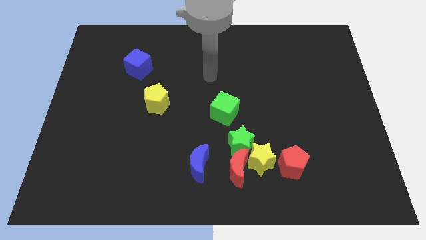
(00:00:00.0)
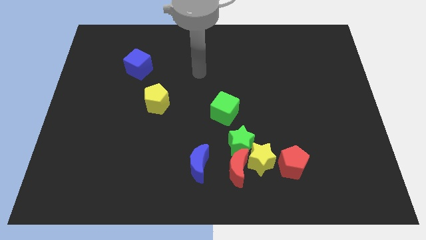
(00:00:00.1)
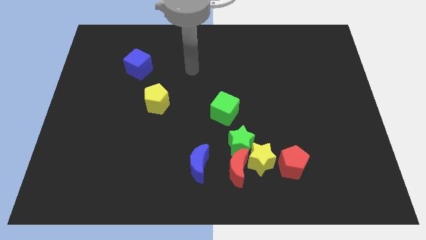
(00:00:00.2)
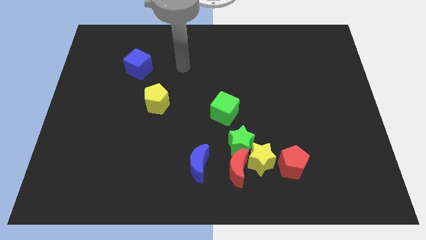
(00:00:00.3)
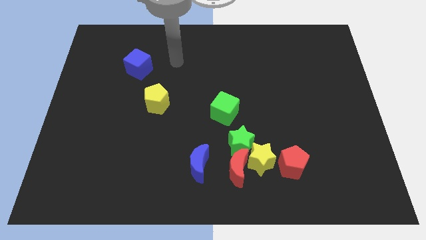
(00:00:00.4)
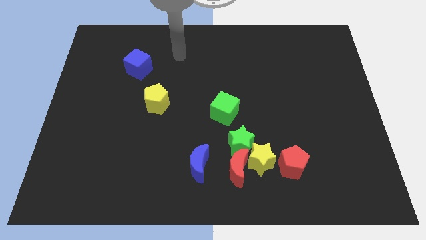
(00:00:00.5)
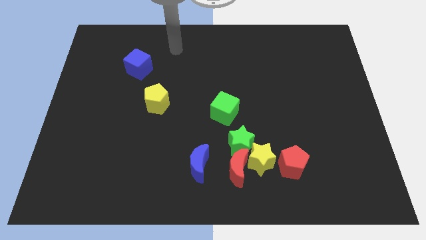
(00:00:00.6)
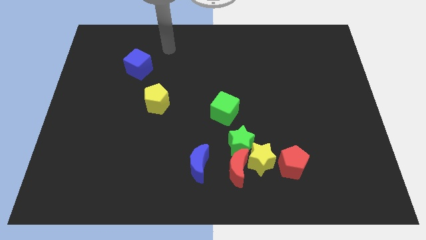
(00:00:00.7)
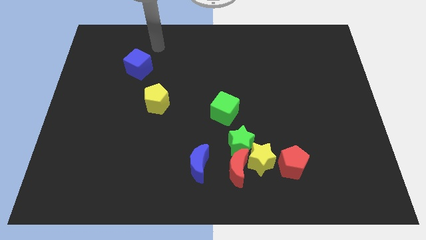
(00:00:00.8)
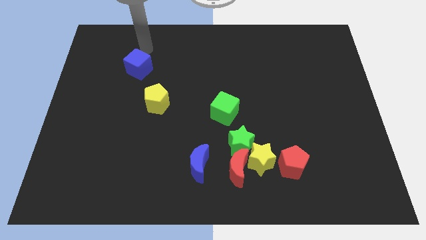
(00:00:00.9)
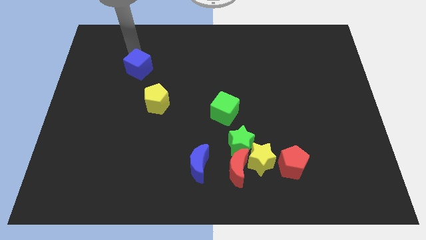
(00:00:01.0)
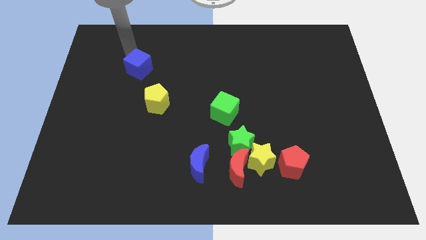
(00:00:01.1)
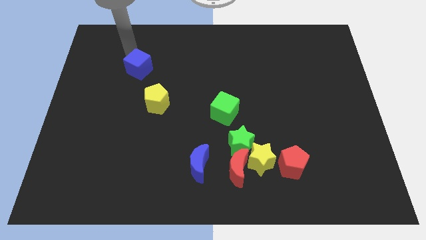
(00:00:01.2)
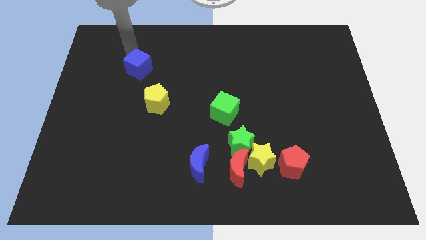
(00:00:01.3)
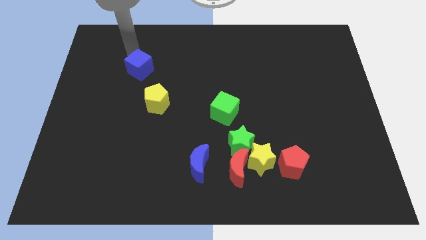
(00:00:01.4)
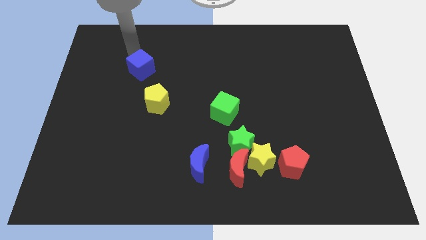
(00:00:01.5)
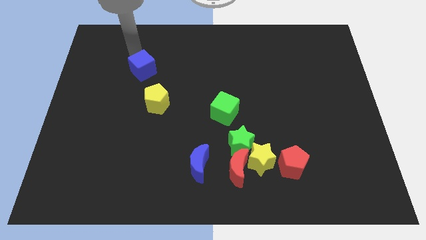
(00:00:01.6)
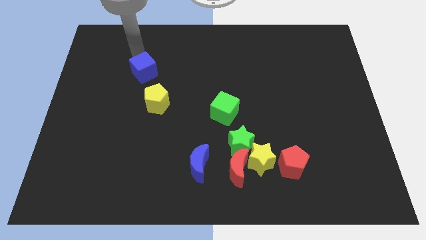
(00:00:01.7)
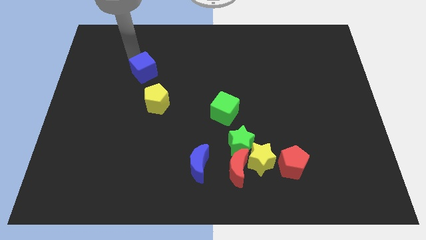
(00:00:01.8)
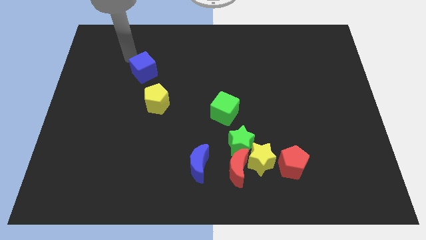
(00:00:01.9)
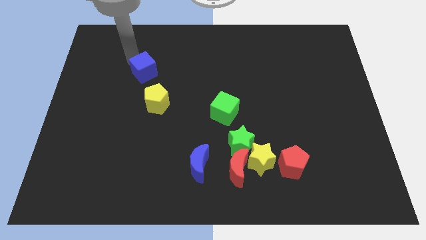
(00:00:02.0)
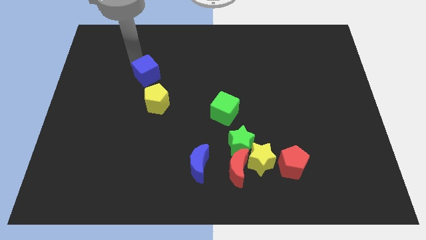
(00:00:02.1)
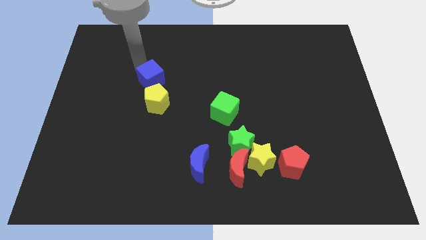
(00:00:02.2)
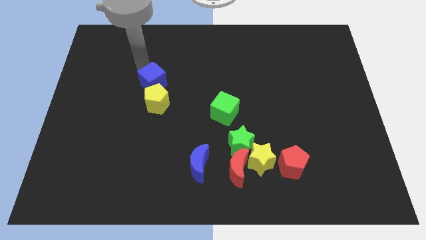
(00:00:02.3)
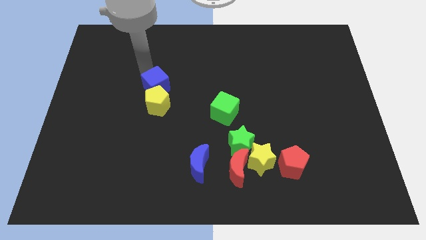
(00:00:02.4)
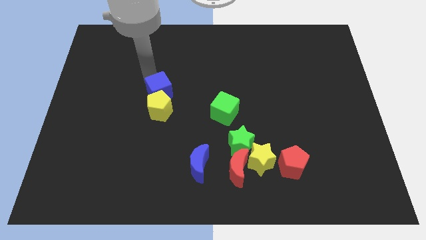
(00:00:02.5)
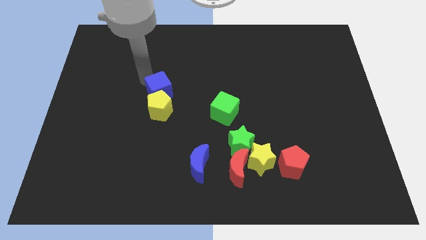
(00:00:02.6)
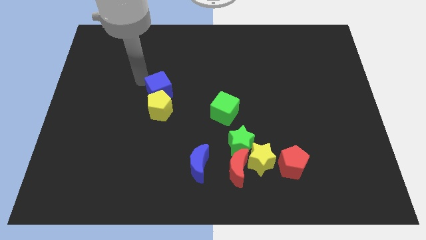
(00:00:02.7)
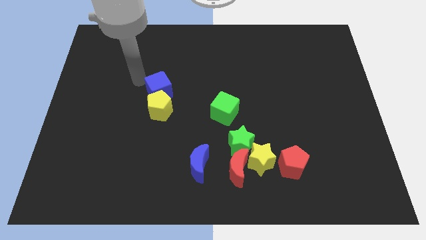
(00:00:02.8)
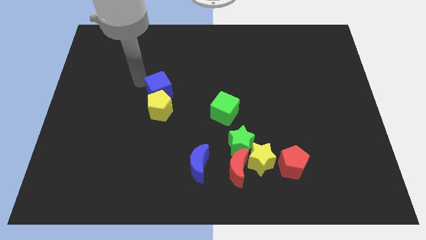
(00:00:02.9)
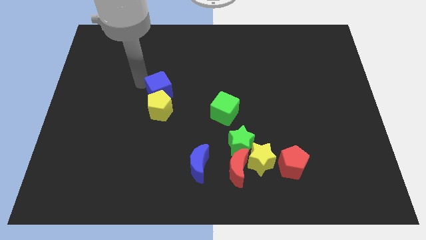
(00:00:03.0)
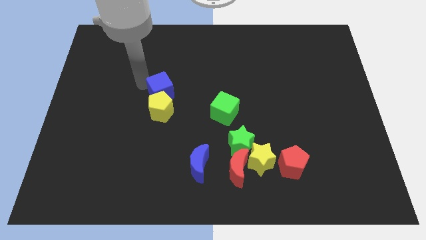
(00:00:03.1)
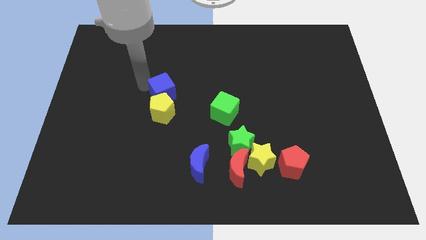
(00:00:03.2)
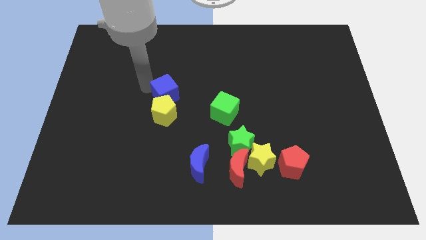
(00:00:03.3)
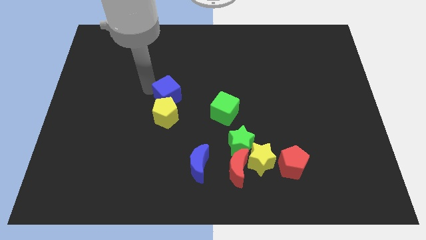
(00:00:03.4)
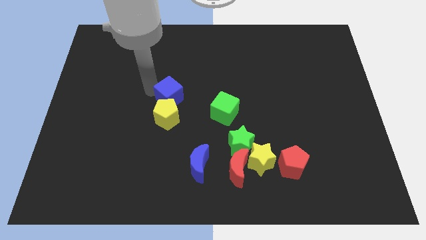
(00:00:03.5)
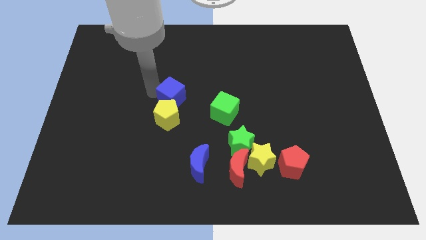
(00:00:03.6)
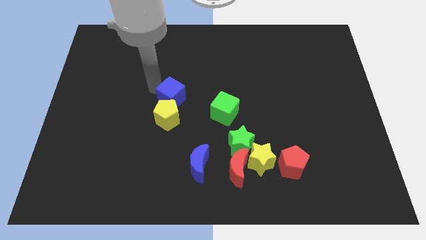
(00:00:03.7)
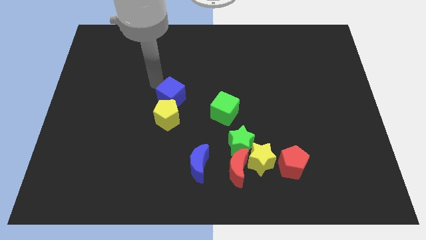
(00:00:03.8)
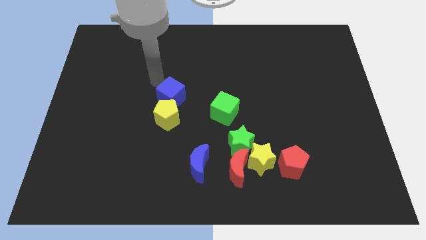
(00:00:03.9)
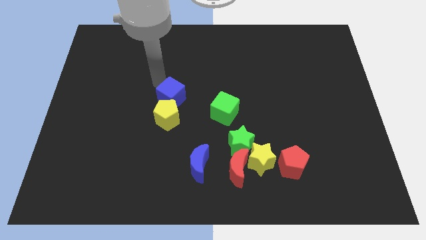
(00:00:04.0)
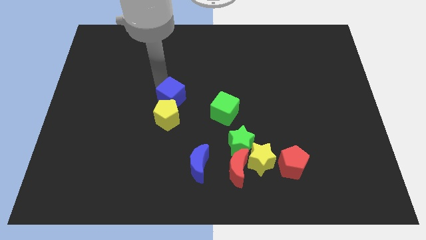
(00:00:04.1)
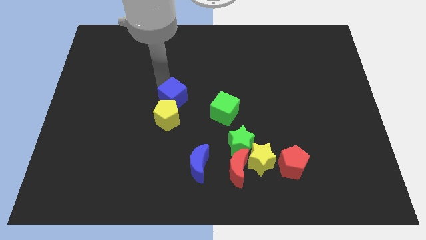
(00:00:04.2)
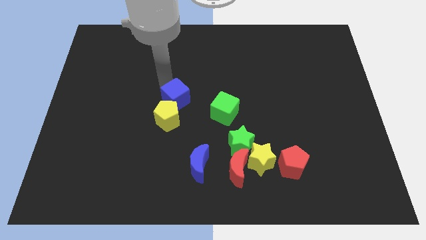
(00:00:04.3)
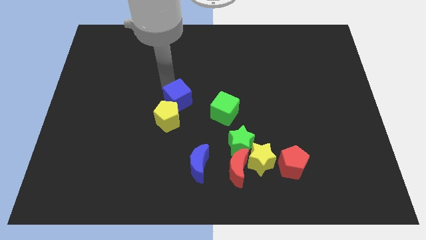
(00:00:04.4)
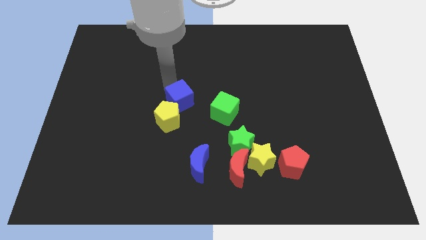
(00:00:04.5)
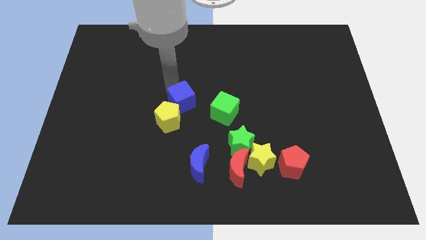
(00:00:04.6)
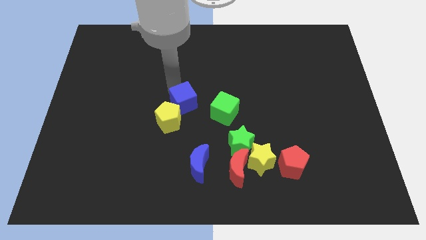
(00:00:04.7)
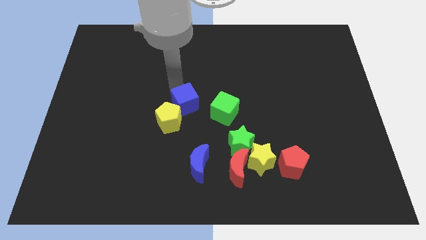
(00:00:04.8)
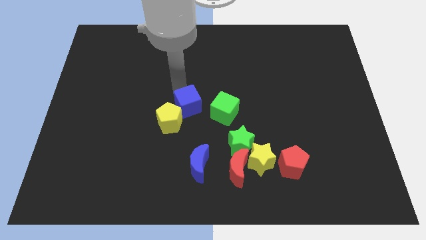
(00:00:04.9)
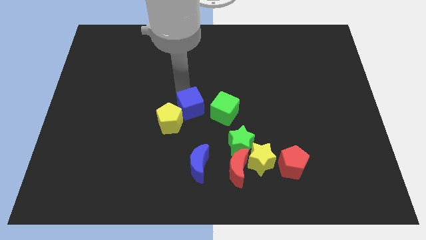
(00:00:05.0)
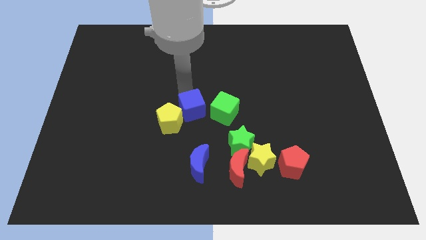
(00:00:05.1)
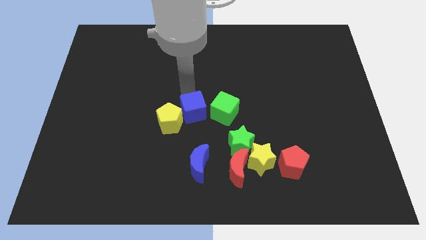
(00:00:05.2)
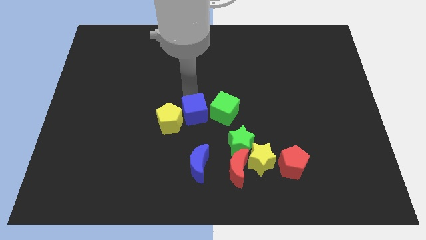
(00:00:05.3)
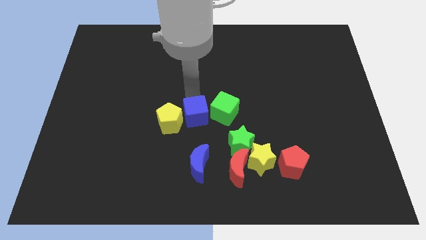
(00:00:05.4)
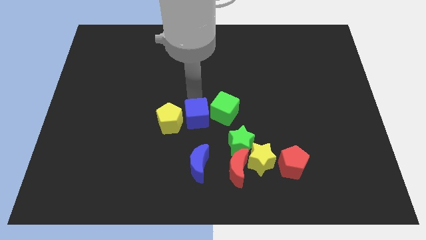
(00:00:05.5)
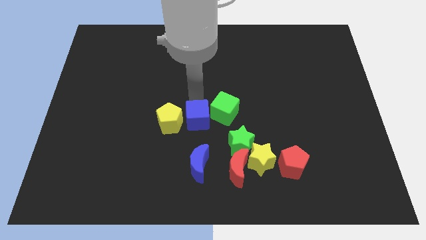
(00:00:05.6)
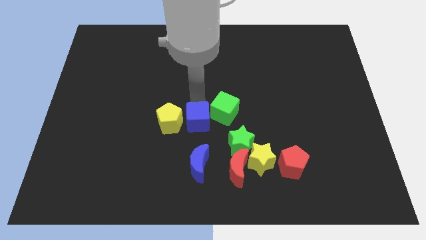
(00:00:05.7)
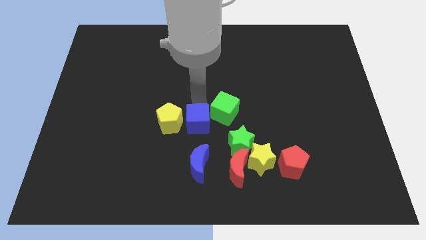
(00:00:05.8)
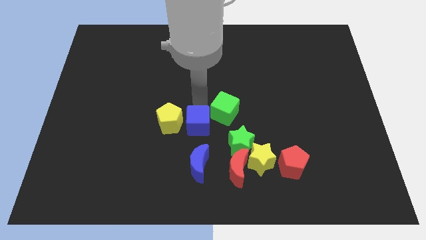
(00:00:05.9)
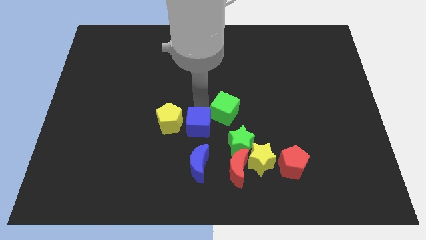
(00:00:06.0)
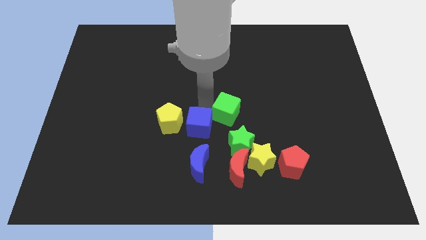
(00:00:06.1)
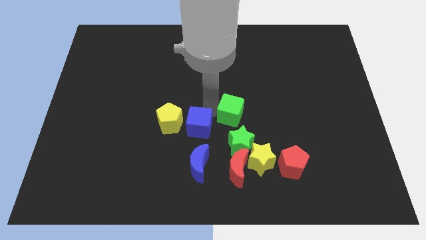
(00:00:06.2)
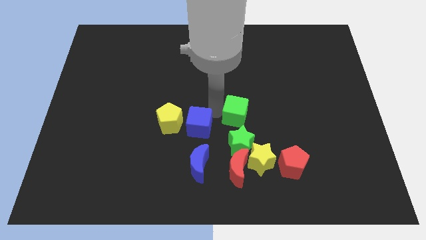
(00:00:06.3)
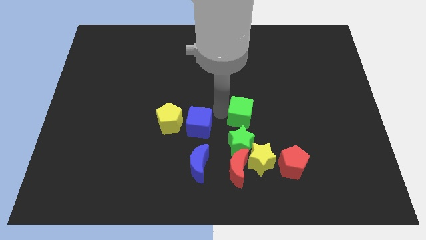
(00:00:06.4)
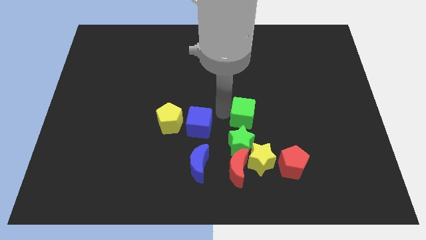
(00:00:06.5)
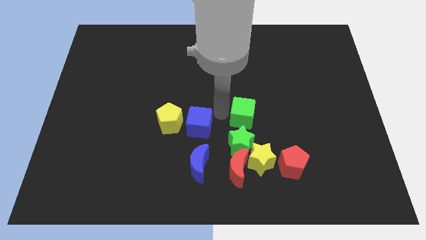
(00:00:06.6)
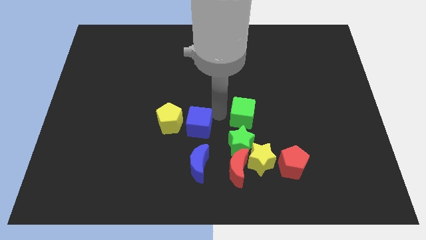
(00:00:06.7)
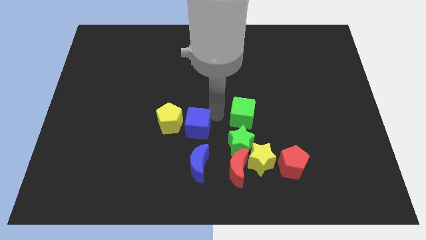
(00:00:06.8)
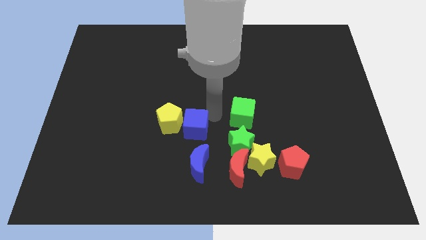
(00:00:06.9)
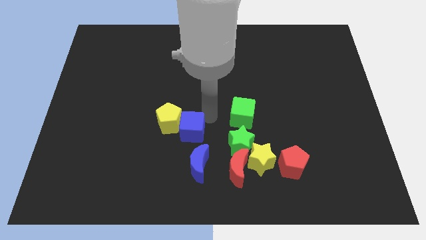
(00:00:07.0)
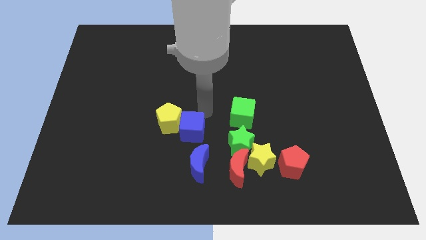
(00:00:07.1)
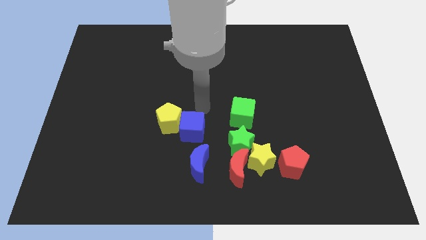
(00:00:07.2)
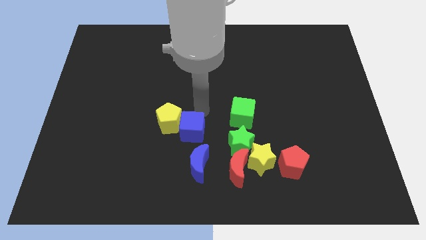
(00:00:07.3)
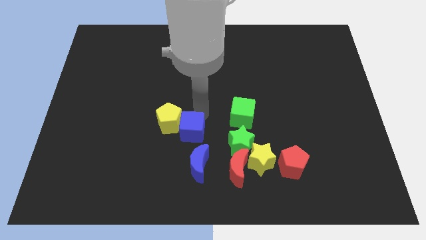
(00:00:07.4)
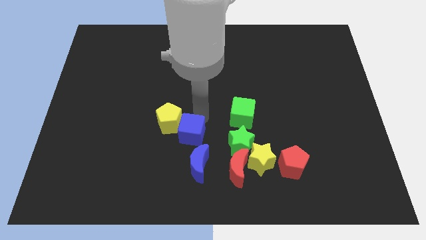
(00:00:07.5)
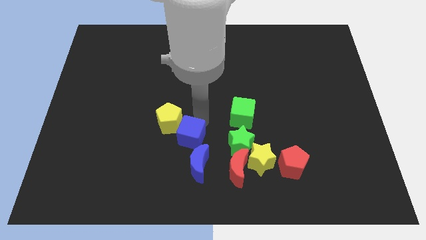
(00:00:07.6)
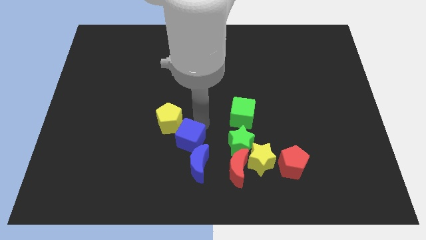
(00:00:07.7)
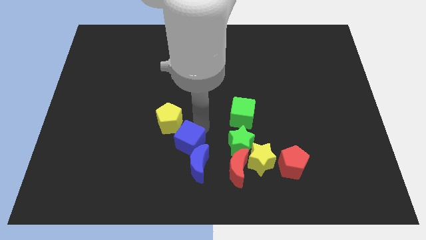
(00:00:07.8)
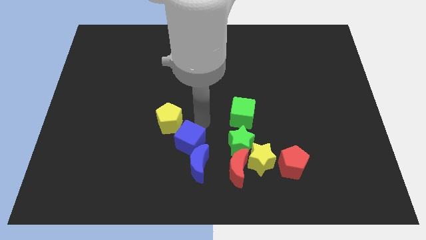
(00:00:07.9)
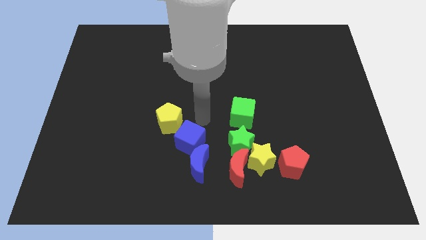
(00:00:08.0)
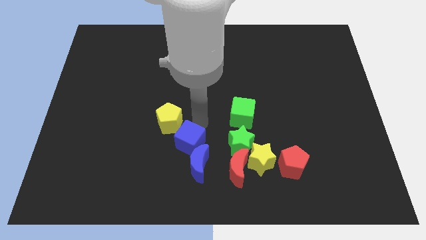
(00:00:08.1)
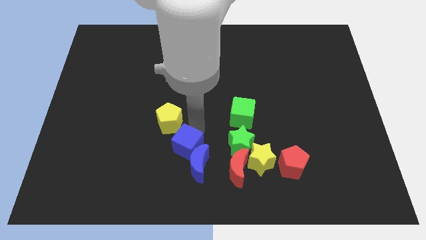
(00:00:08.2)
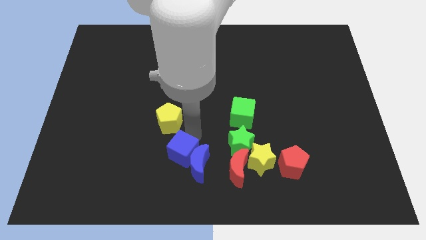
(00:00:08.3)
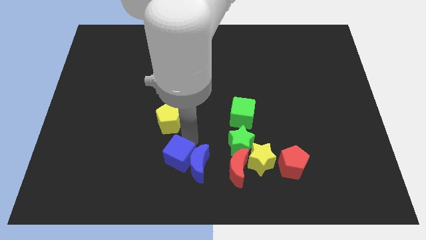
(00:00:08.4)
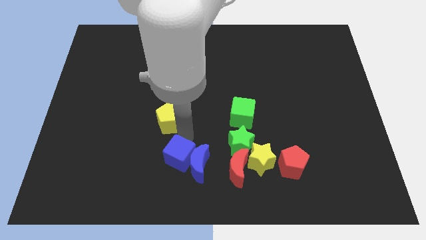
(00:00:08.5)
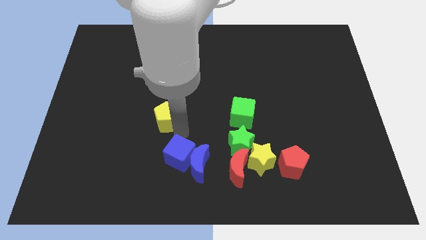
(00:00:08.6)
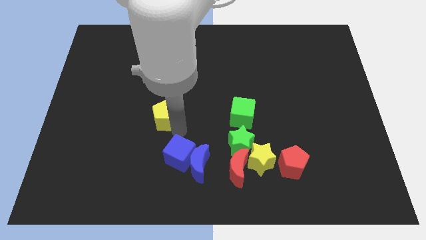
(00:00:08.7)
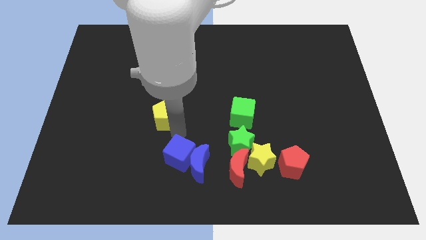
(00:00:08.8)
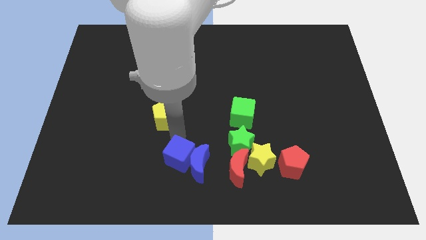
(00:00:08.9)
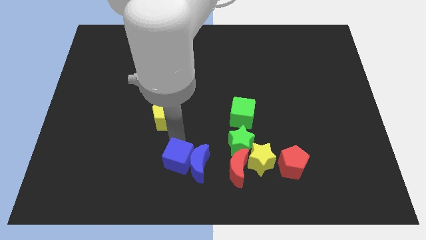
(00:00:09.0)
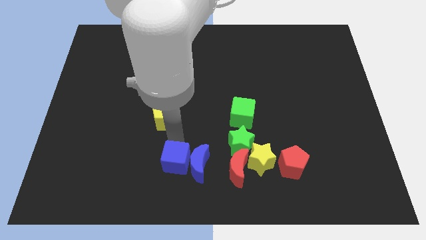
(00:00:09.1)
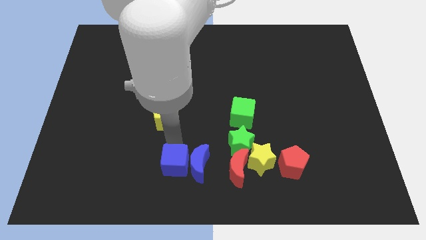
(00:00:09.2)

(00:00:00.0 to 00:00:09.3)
move the blue cube to the bottom side
